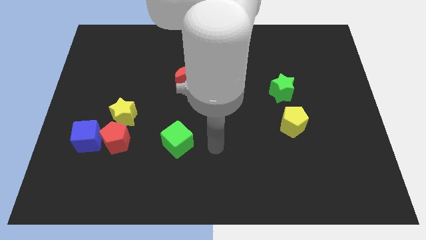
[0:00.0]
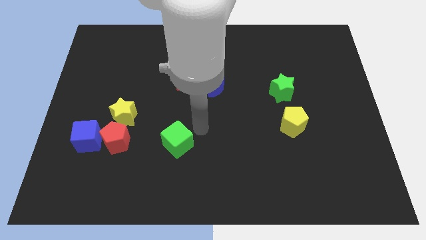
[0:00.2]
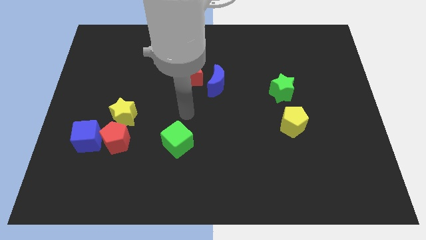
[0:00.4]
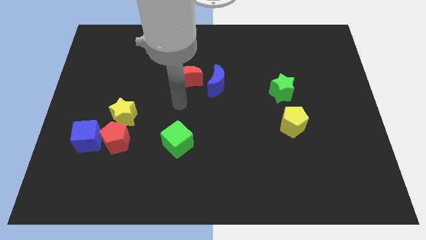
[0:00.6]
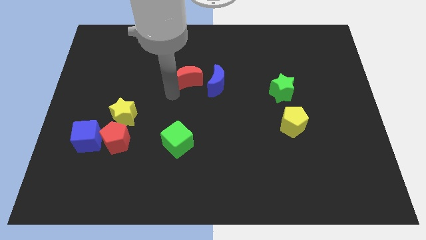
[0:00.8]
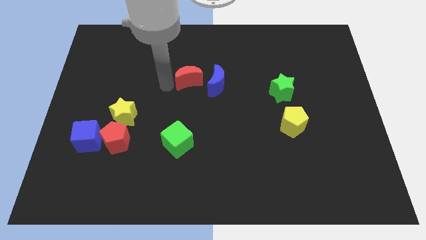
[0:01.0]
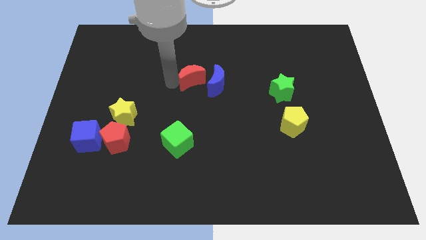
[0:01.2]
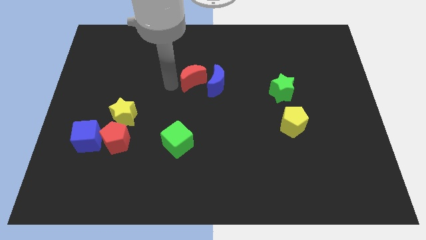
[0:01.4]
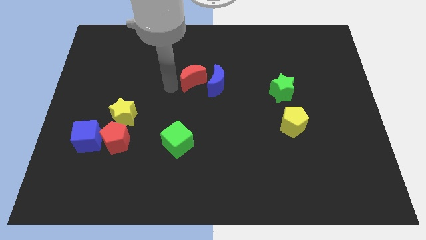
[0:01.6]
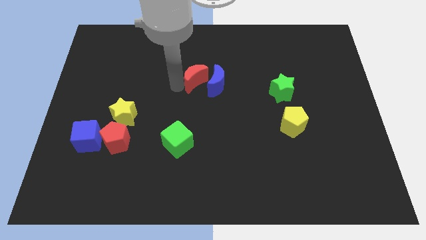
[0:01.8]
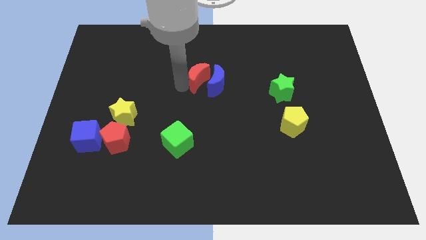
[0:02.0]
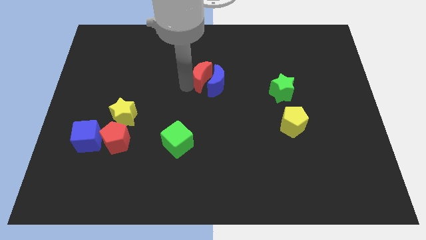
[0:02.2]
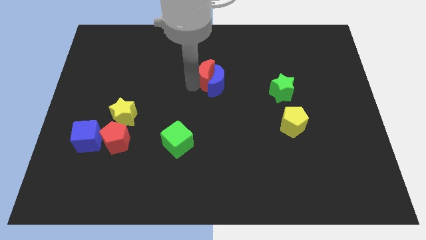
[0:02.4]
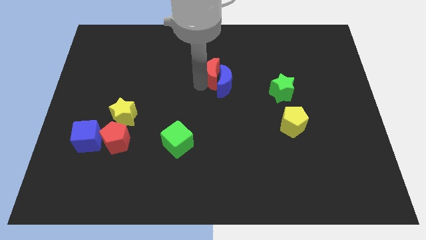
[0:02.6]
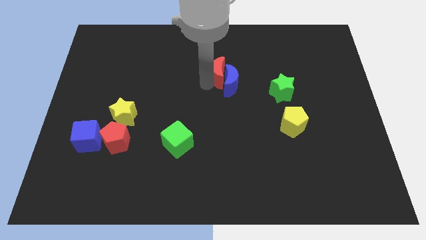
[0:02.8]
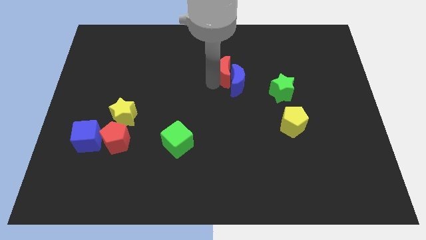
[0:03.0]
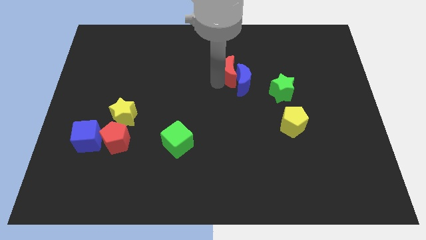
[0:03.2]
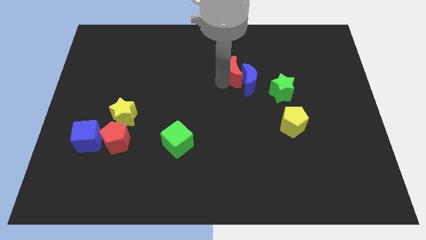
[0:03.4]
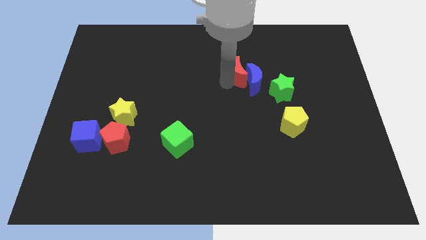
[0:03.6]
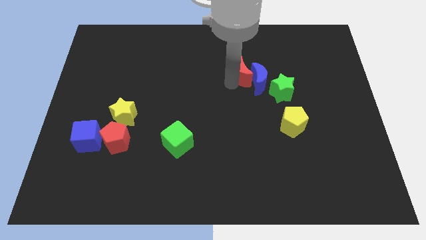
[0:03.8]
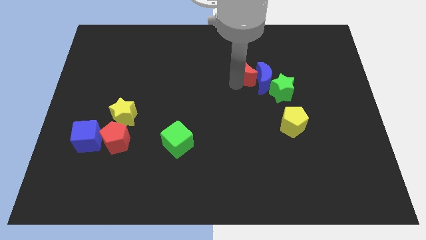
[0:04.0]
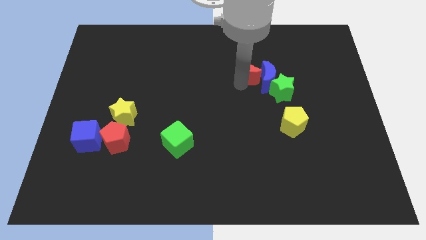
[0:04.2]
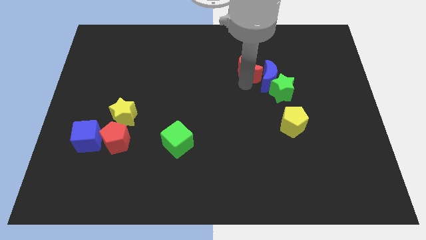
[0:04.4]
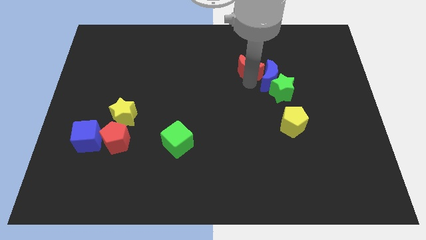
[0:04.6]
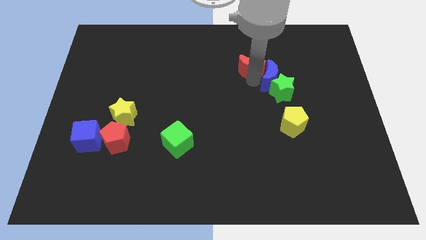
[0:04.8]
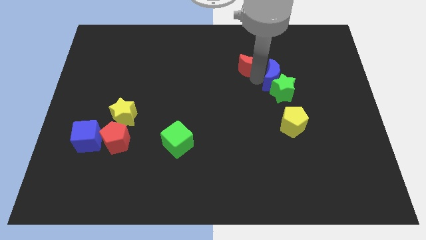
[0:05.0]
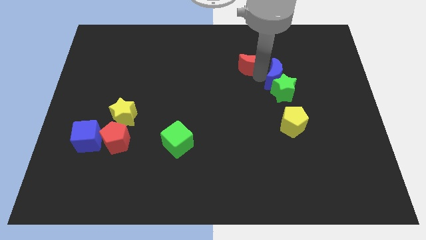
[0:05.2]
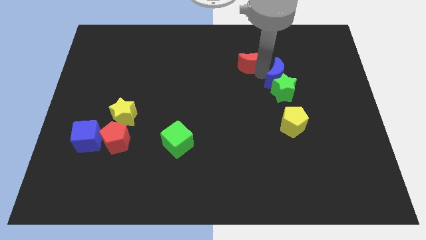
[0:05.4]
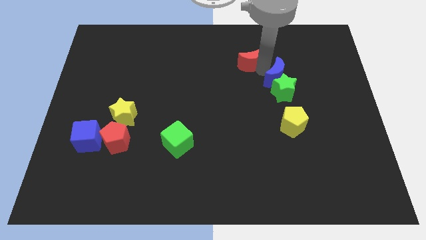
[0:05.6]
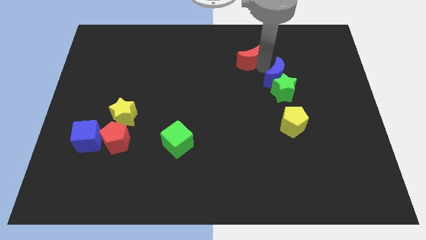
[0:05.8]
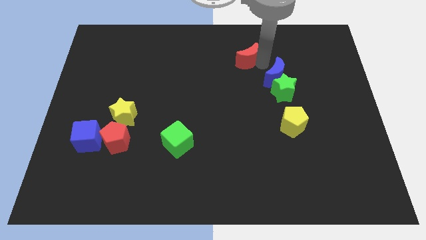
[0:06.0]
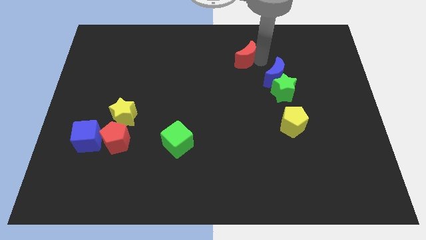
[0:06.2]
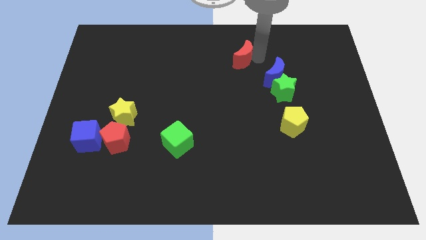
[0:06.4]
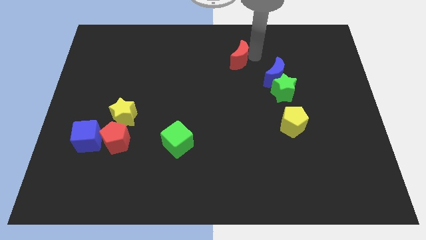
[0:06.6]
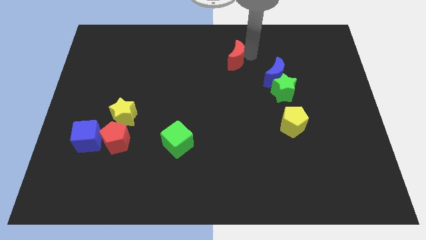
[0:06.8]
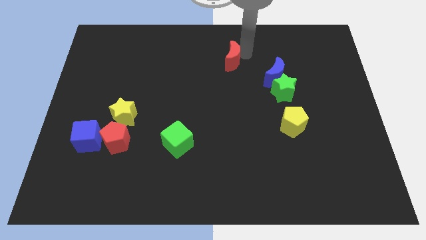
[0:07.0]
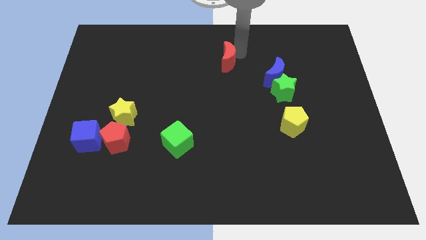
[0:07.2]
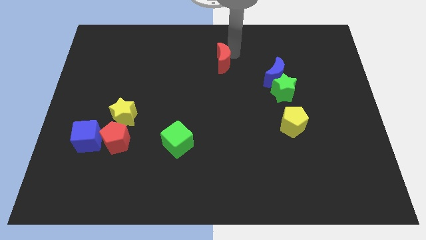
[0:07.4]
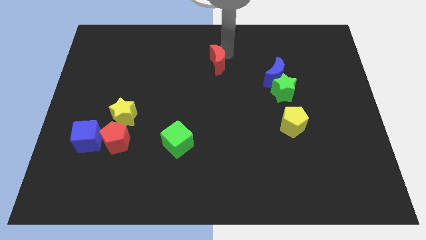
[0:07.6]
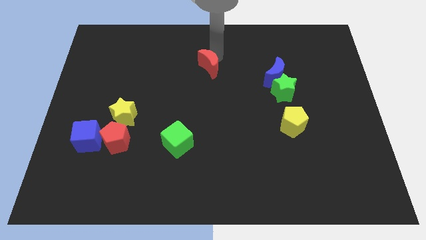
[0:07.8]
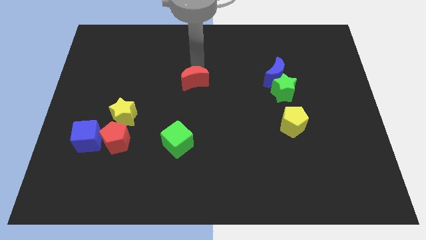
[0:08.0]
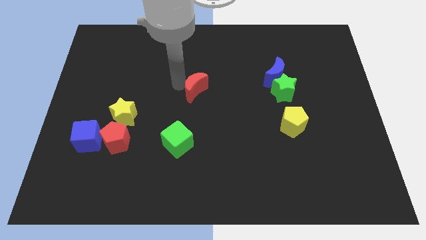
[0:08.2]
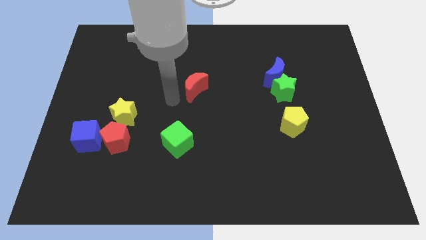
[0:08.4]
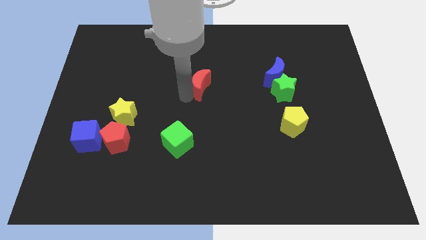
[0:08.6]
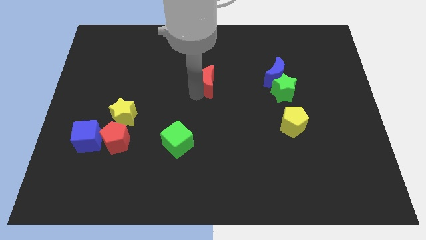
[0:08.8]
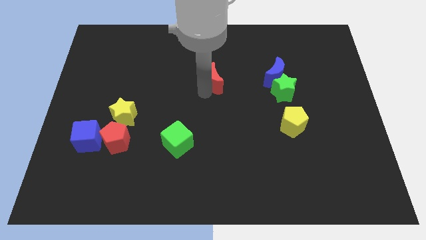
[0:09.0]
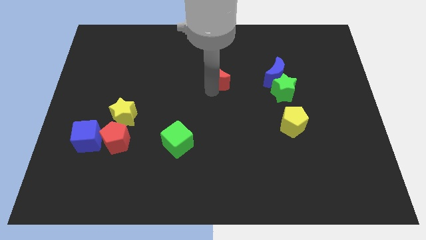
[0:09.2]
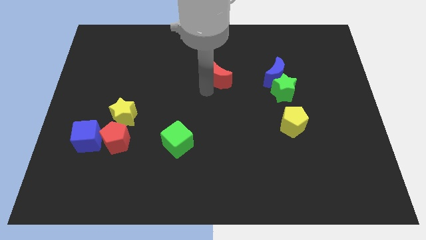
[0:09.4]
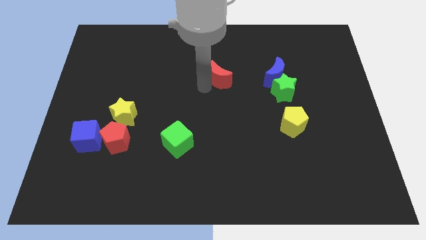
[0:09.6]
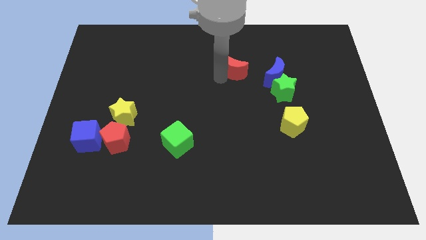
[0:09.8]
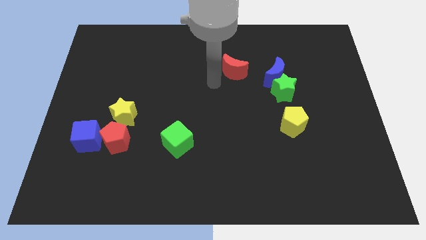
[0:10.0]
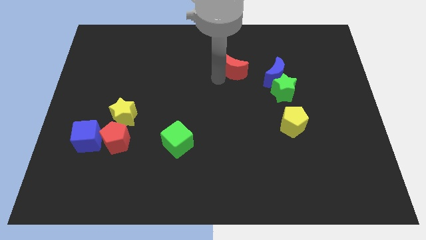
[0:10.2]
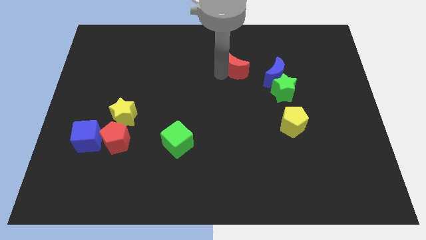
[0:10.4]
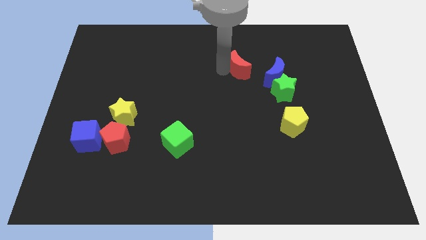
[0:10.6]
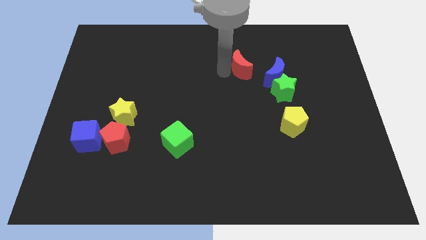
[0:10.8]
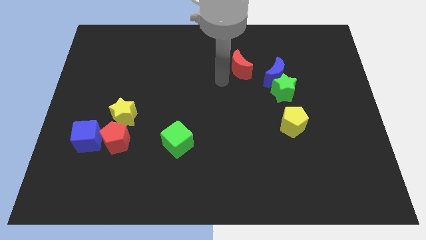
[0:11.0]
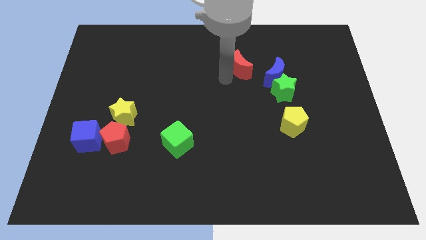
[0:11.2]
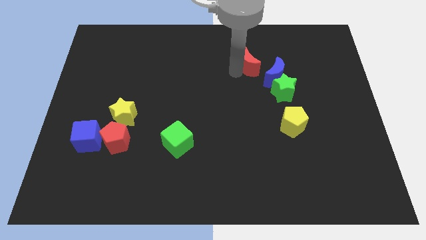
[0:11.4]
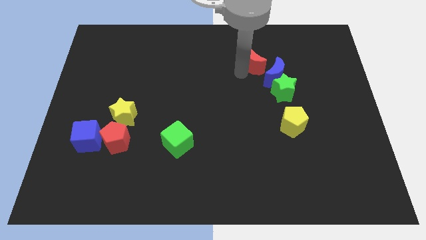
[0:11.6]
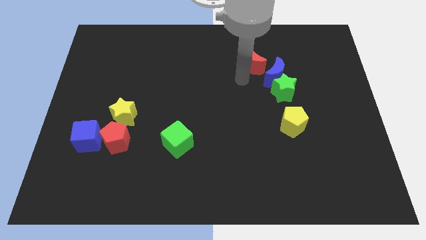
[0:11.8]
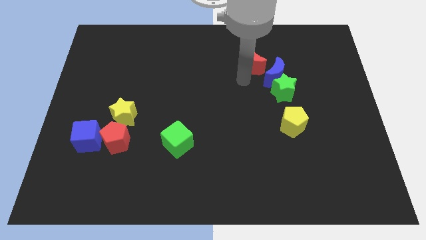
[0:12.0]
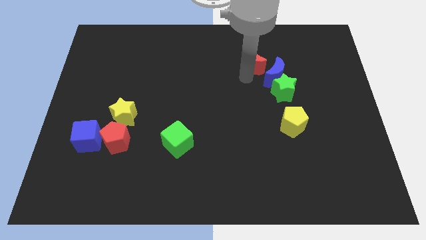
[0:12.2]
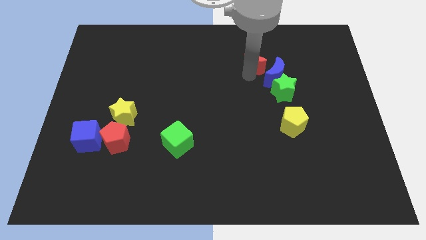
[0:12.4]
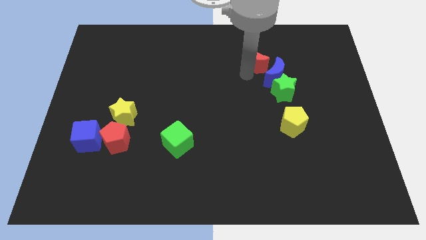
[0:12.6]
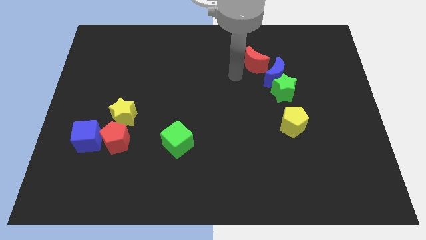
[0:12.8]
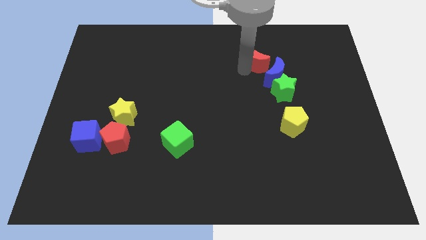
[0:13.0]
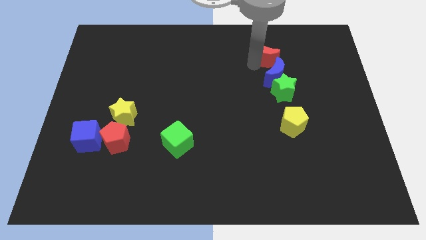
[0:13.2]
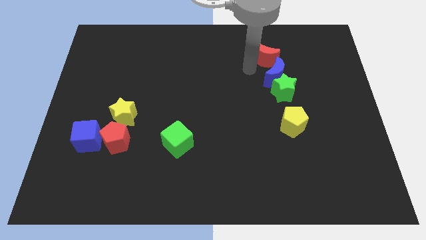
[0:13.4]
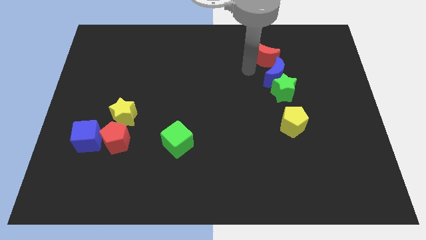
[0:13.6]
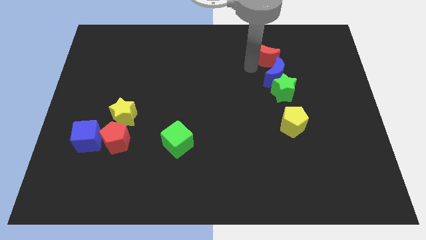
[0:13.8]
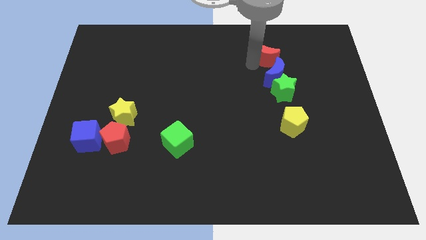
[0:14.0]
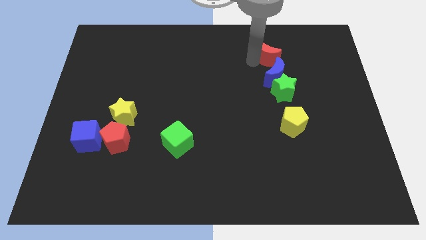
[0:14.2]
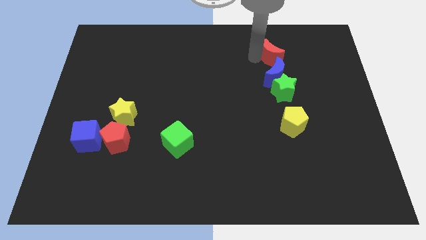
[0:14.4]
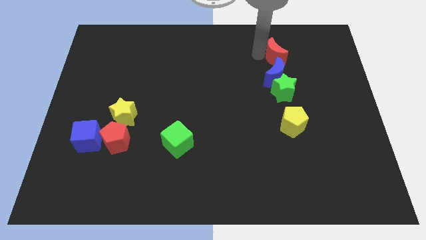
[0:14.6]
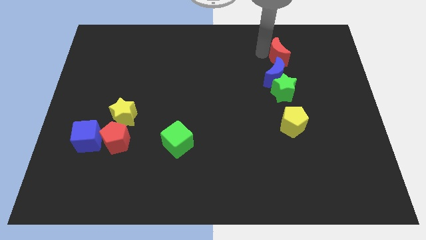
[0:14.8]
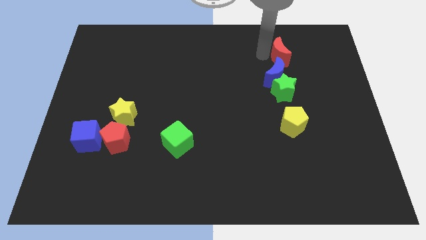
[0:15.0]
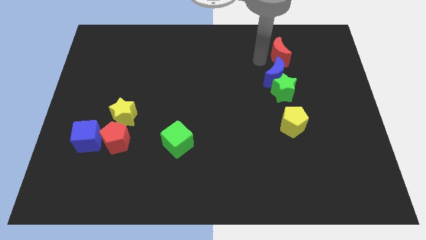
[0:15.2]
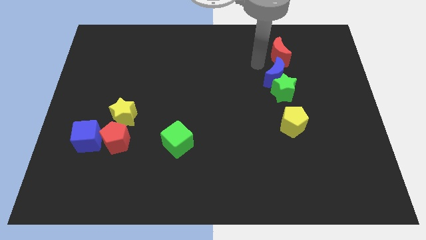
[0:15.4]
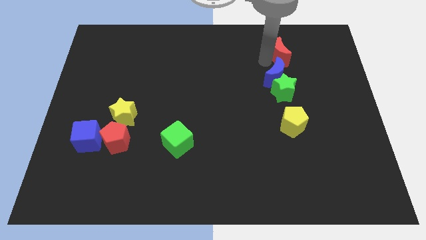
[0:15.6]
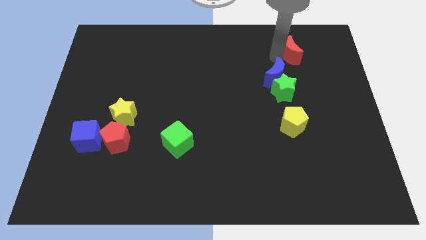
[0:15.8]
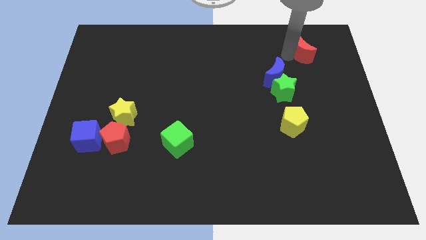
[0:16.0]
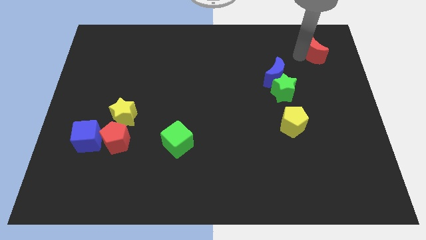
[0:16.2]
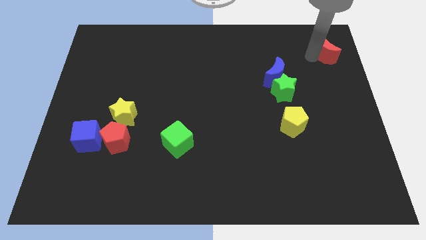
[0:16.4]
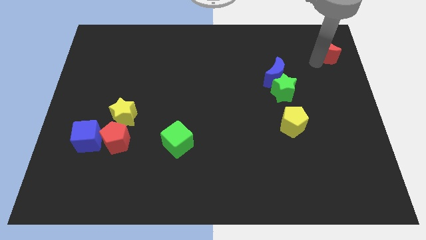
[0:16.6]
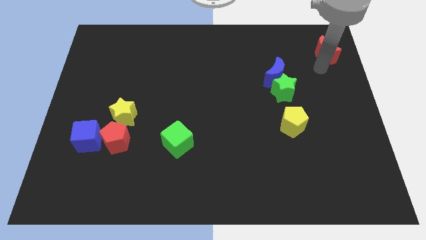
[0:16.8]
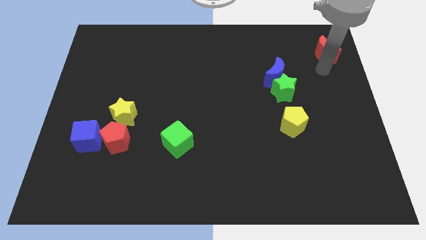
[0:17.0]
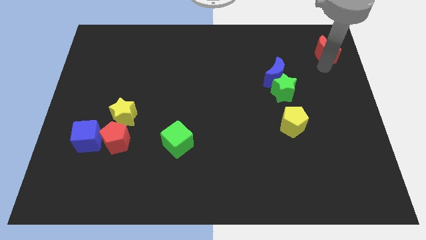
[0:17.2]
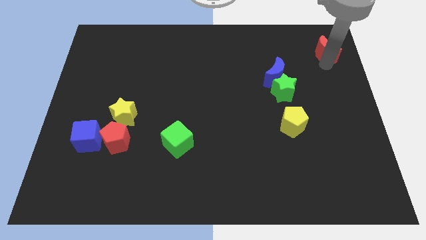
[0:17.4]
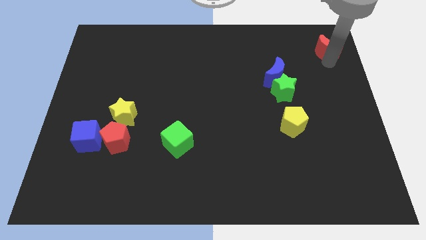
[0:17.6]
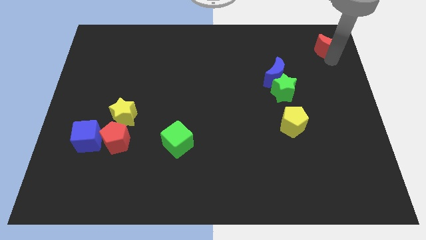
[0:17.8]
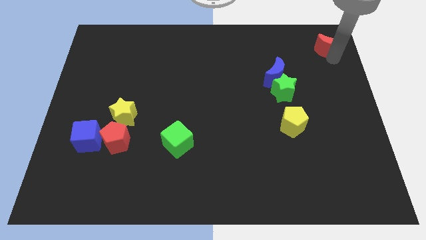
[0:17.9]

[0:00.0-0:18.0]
put the red moon to the top right of the board
